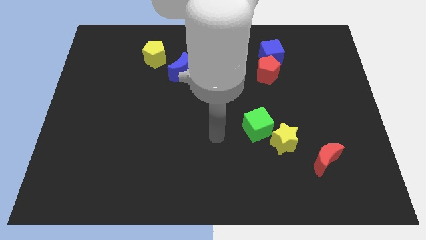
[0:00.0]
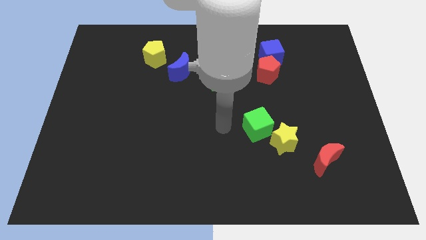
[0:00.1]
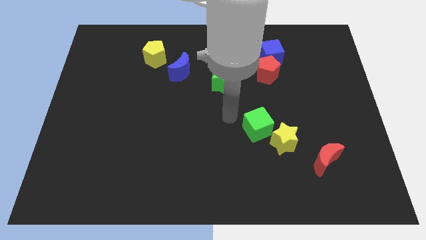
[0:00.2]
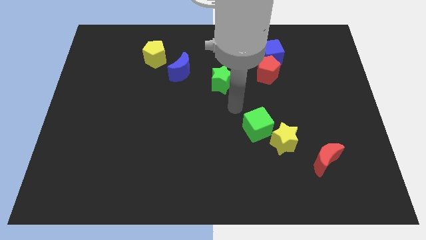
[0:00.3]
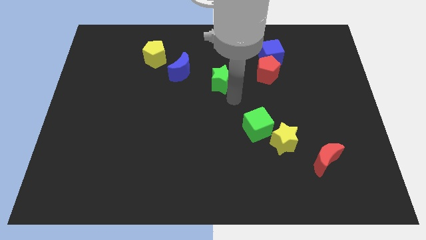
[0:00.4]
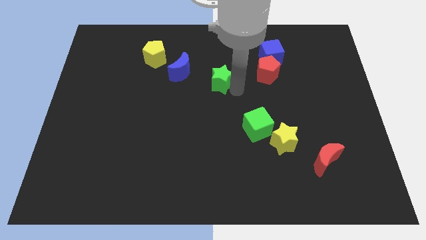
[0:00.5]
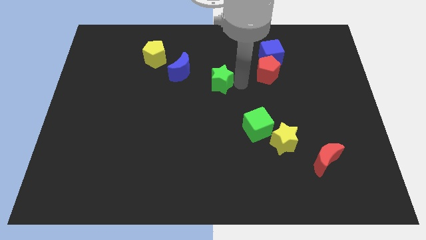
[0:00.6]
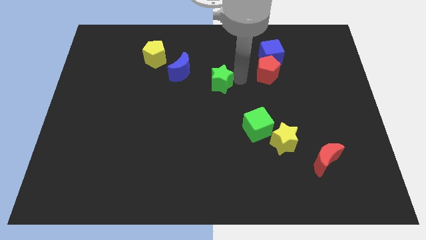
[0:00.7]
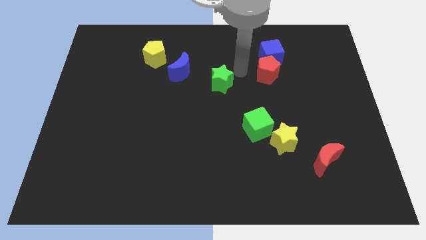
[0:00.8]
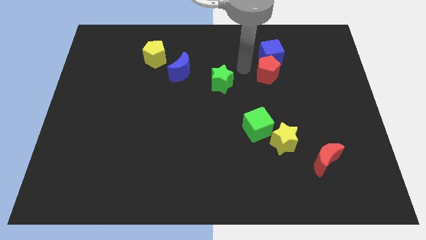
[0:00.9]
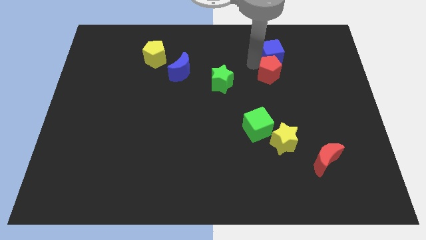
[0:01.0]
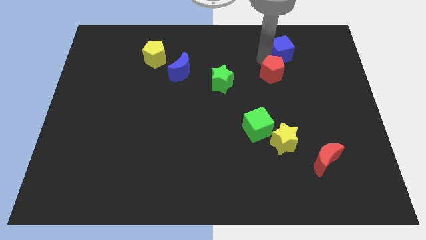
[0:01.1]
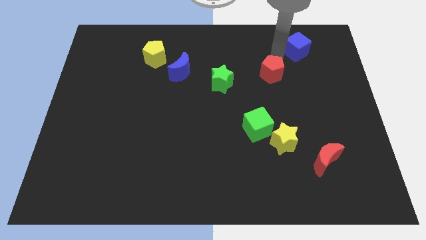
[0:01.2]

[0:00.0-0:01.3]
pull the red pentagon apart from the blue cube

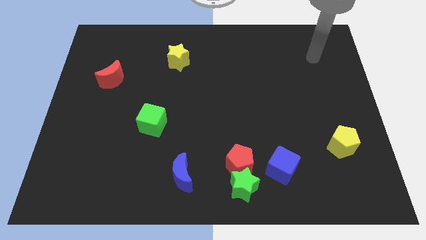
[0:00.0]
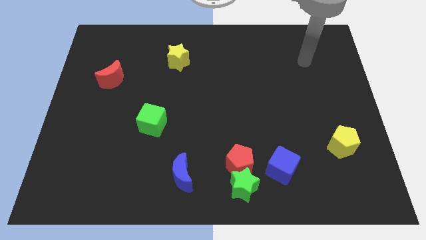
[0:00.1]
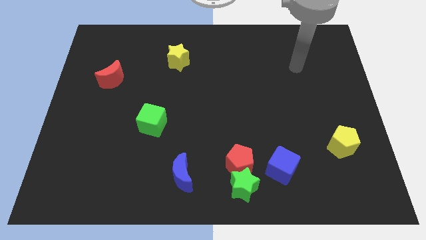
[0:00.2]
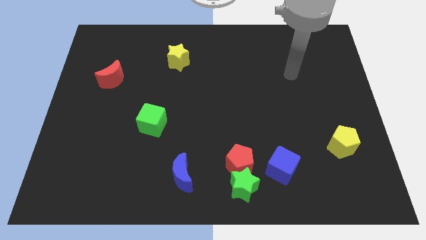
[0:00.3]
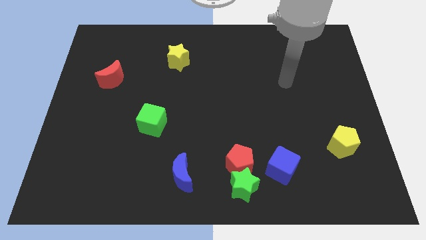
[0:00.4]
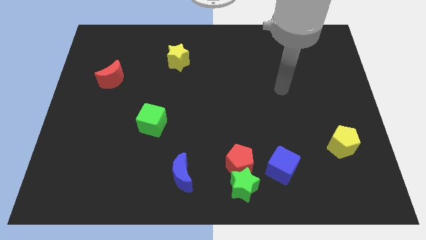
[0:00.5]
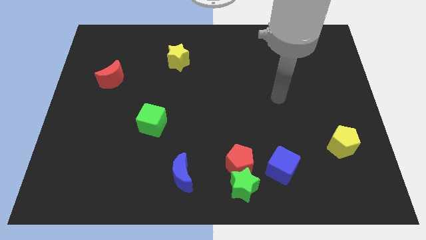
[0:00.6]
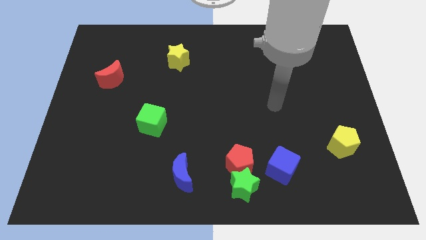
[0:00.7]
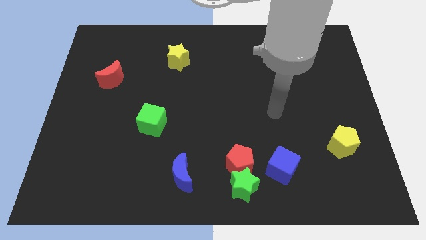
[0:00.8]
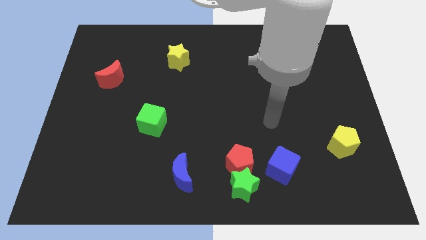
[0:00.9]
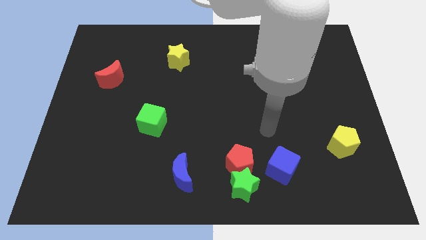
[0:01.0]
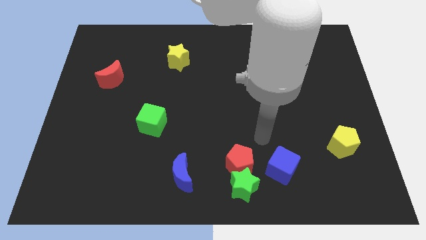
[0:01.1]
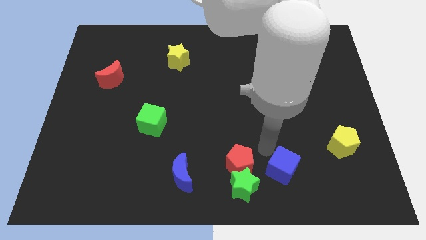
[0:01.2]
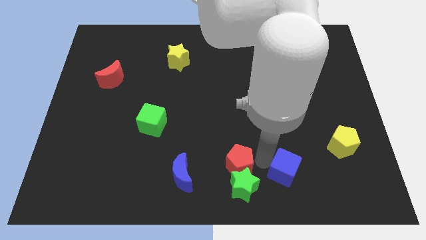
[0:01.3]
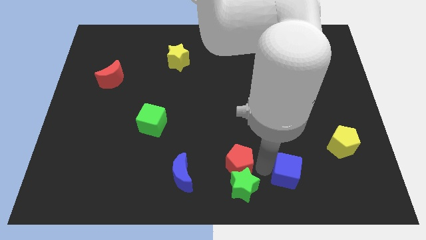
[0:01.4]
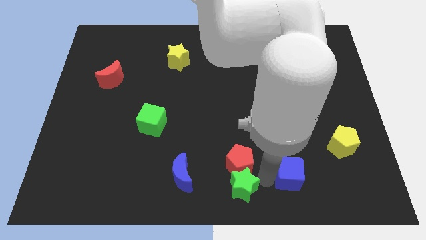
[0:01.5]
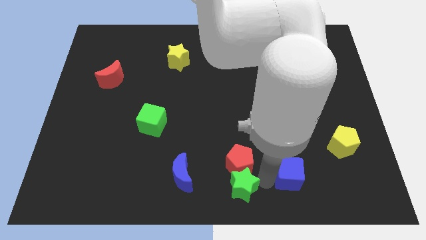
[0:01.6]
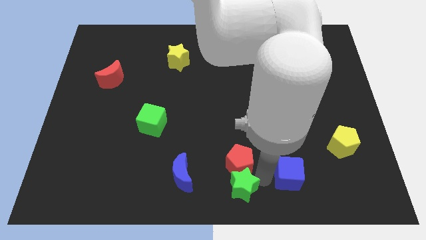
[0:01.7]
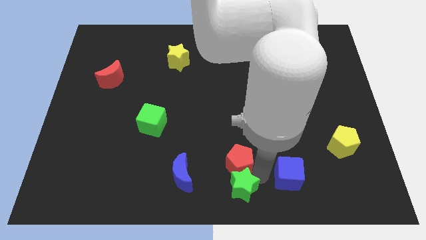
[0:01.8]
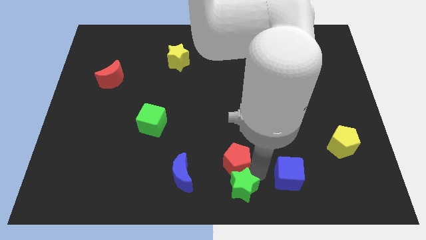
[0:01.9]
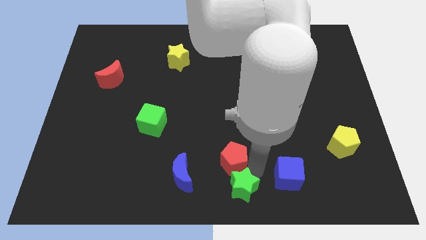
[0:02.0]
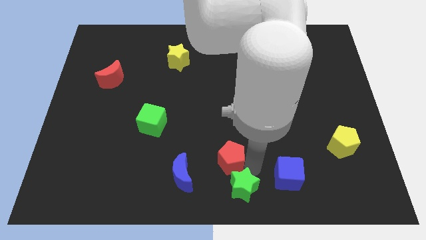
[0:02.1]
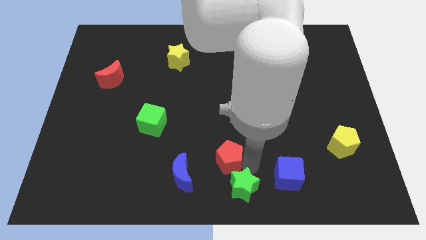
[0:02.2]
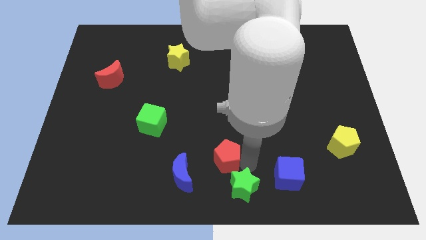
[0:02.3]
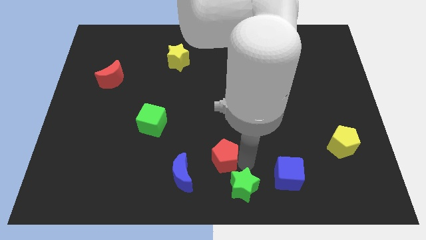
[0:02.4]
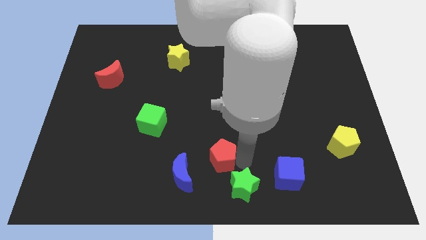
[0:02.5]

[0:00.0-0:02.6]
separate the red pentagon from the green star and blue cube

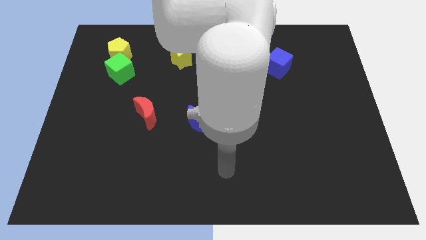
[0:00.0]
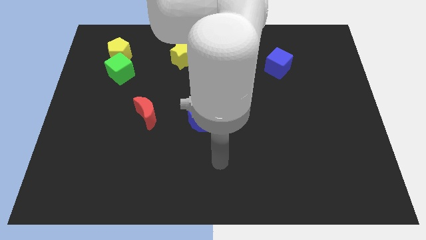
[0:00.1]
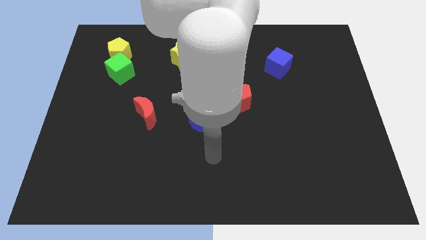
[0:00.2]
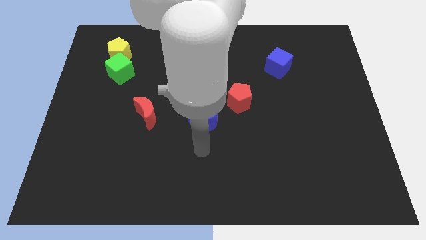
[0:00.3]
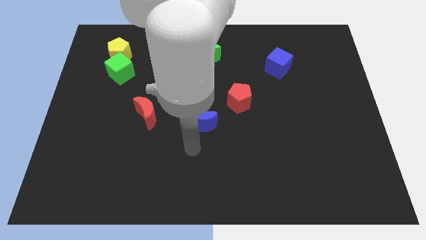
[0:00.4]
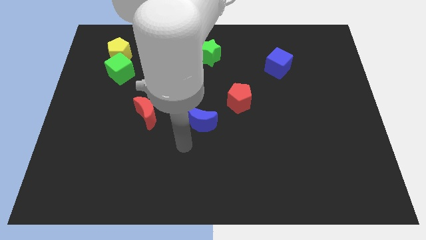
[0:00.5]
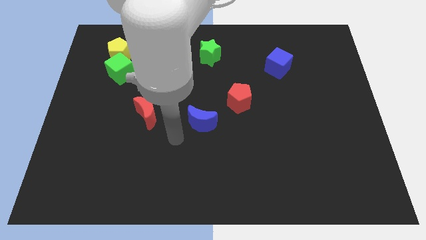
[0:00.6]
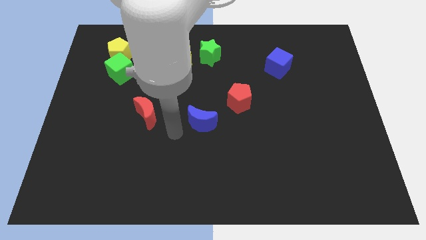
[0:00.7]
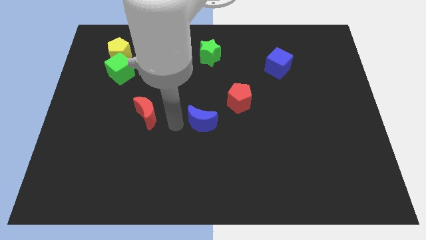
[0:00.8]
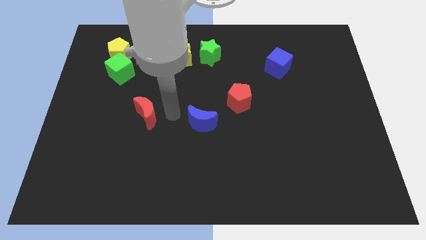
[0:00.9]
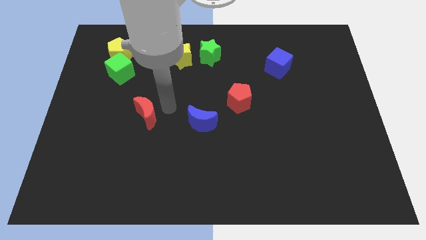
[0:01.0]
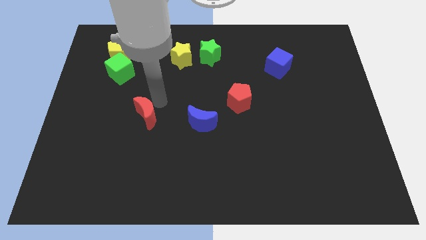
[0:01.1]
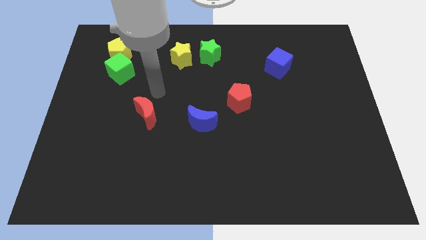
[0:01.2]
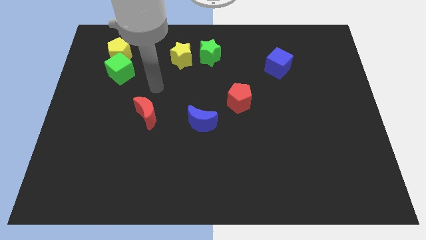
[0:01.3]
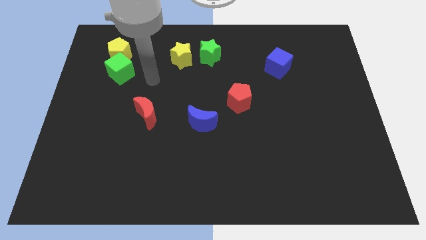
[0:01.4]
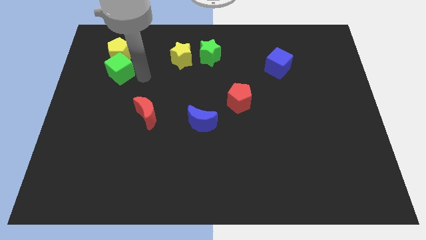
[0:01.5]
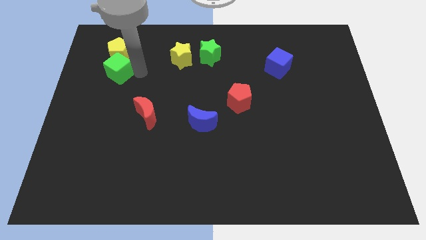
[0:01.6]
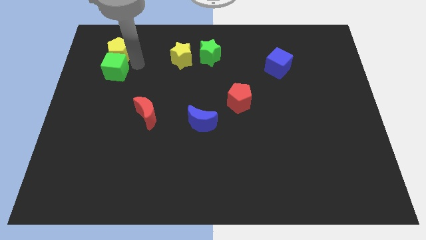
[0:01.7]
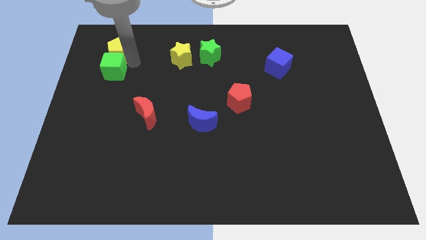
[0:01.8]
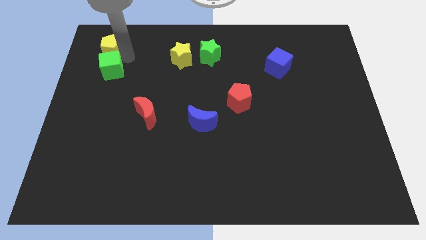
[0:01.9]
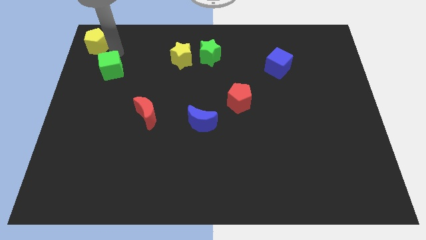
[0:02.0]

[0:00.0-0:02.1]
separate the green cube from the yellow pentagon

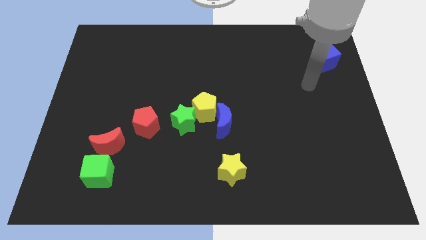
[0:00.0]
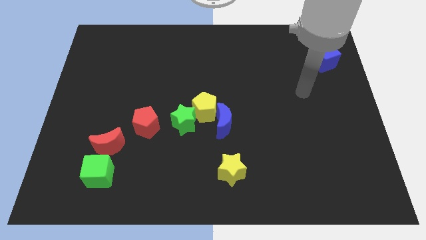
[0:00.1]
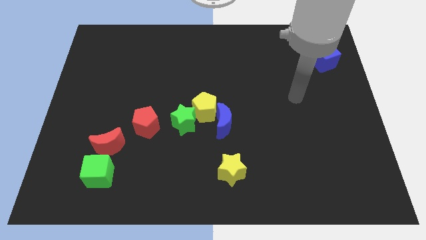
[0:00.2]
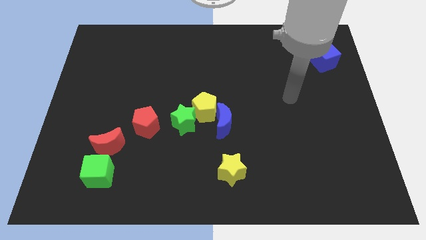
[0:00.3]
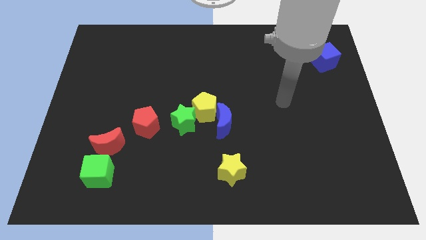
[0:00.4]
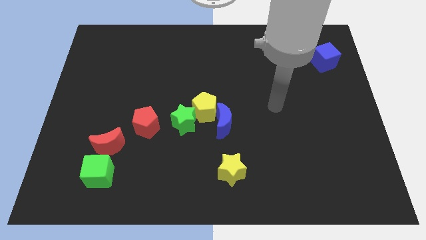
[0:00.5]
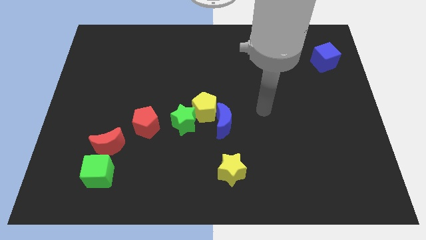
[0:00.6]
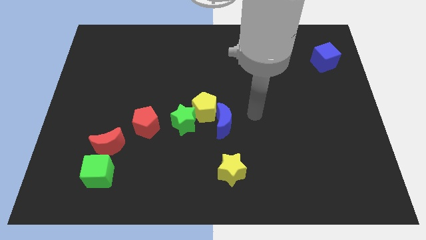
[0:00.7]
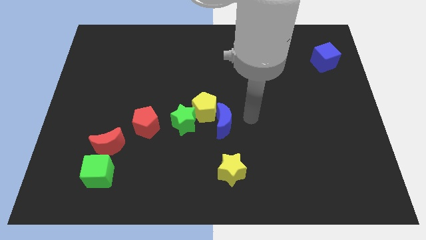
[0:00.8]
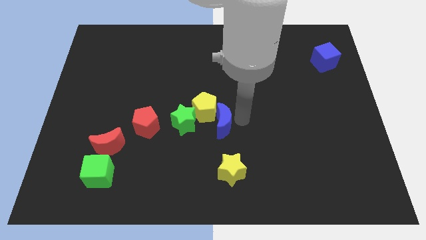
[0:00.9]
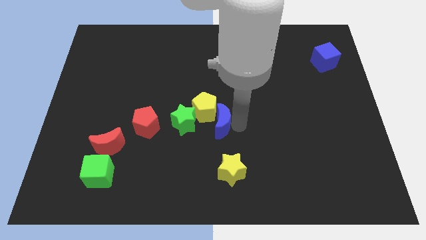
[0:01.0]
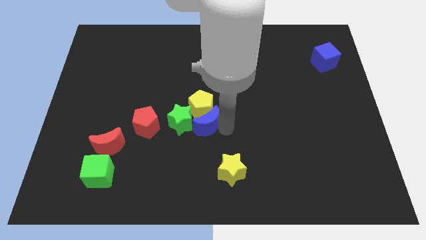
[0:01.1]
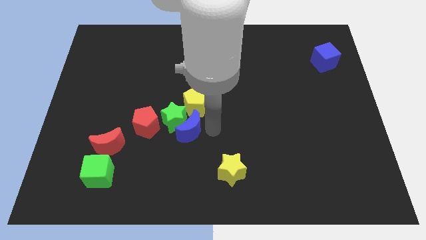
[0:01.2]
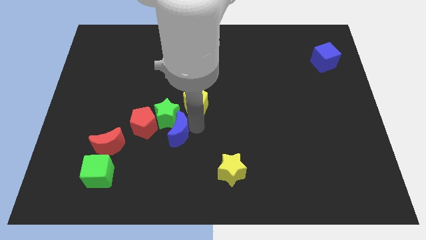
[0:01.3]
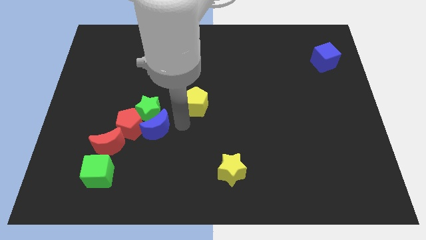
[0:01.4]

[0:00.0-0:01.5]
pull the yellow pentagon apart from the blue moon and green star

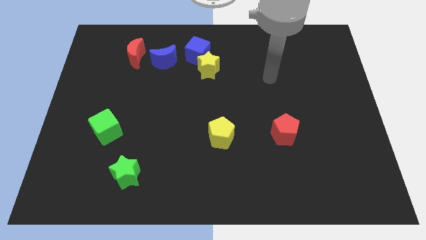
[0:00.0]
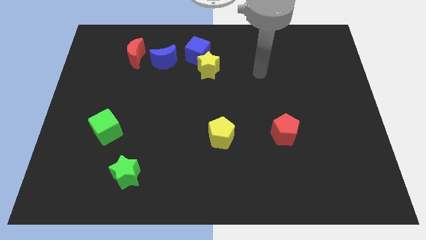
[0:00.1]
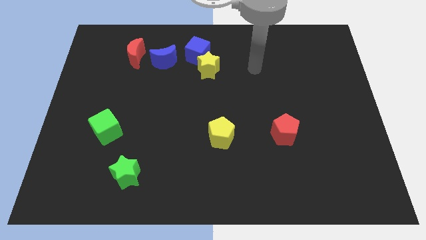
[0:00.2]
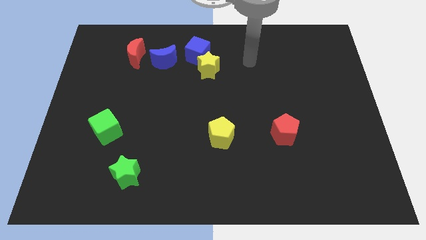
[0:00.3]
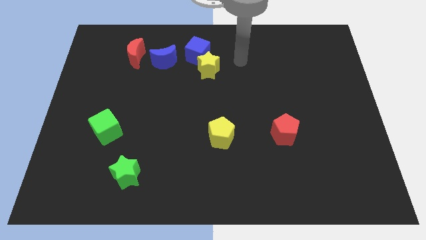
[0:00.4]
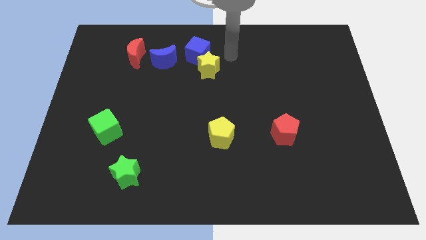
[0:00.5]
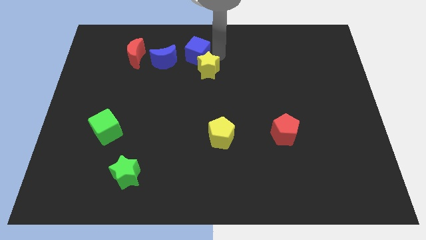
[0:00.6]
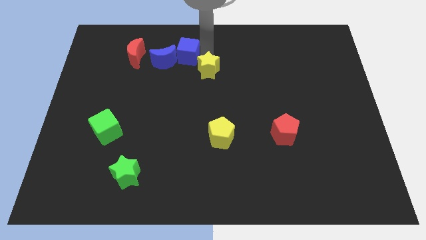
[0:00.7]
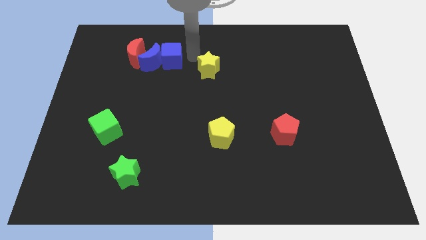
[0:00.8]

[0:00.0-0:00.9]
move the yellow star away from the blue cube

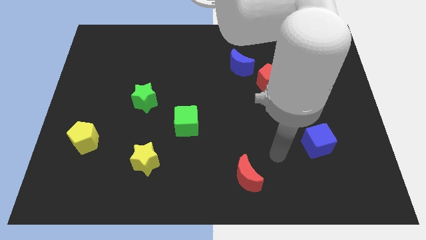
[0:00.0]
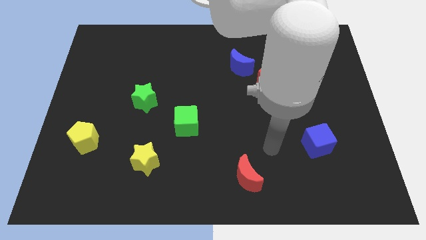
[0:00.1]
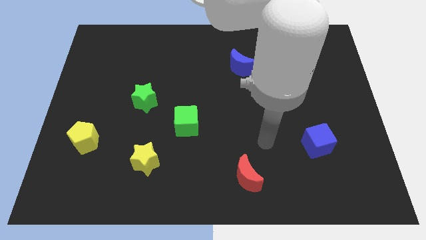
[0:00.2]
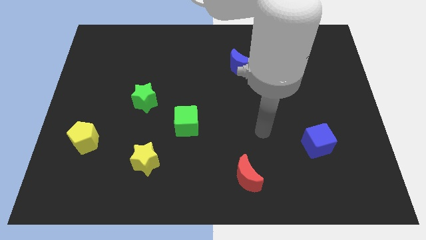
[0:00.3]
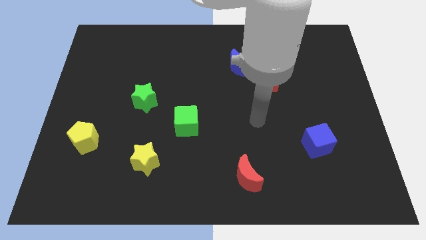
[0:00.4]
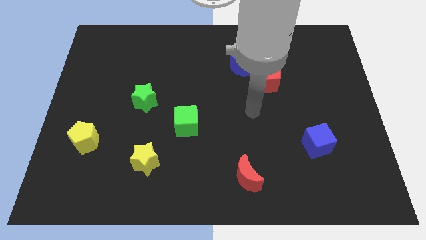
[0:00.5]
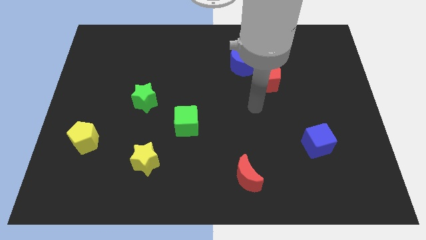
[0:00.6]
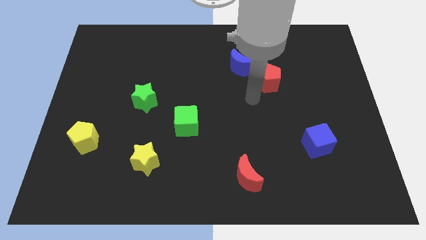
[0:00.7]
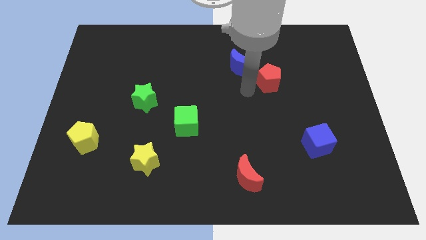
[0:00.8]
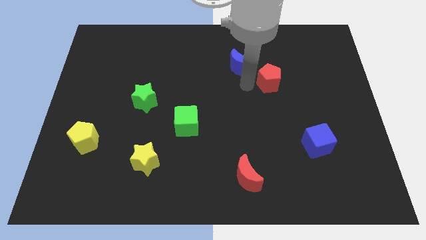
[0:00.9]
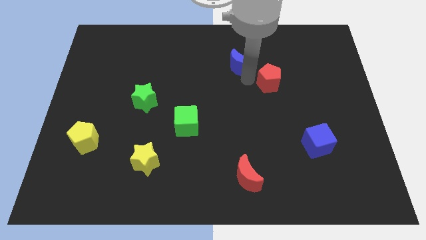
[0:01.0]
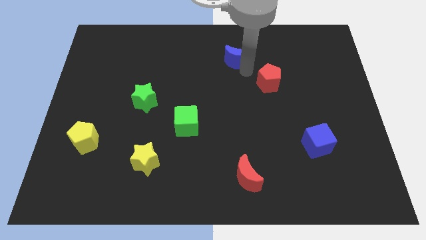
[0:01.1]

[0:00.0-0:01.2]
move the red pentagon away from the blue moon
